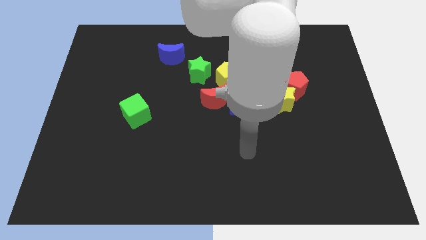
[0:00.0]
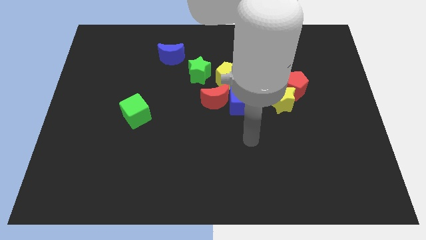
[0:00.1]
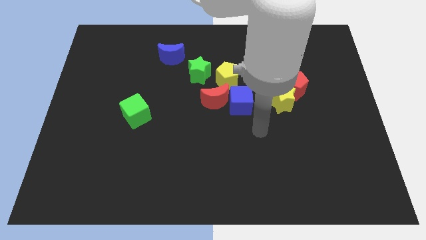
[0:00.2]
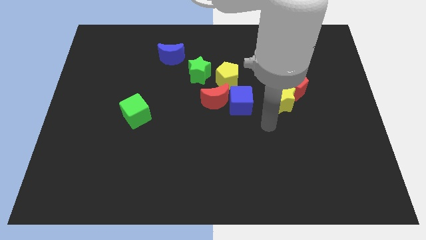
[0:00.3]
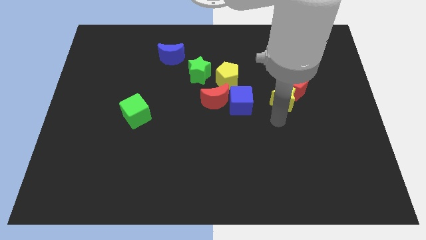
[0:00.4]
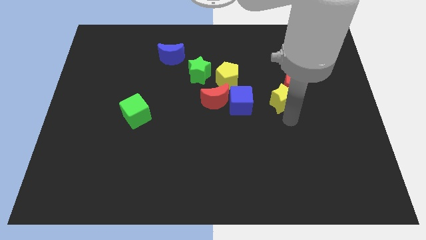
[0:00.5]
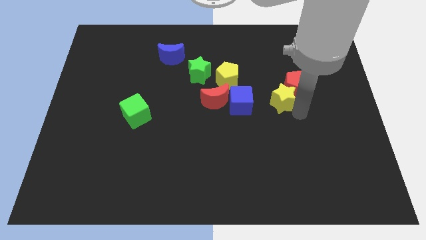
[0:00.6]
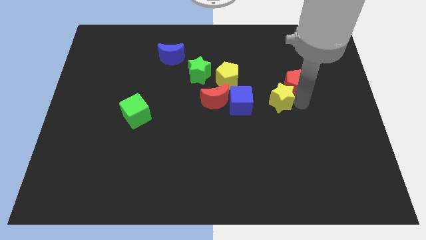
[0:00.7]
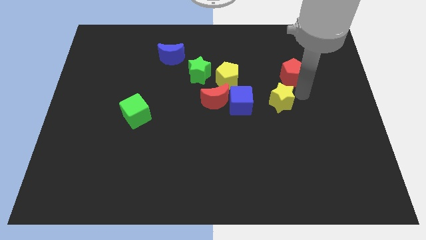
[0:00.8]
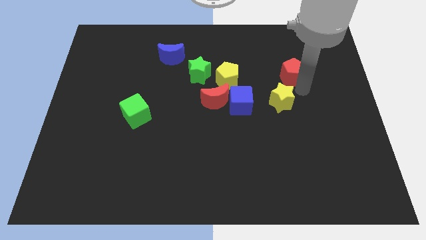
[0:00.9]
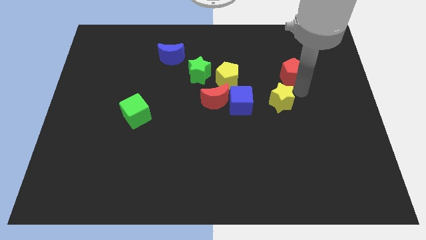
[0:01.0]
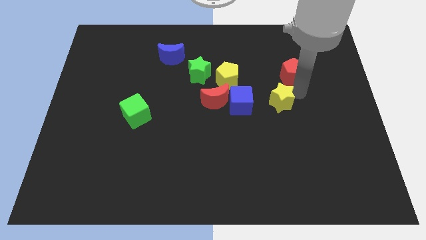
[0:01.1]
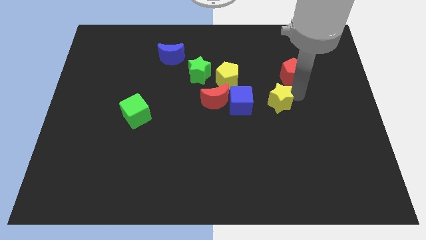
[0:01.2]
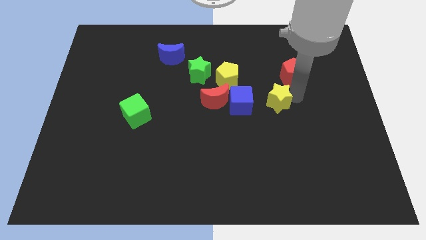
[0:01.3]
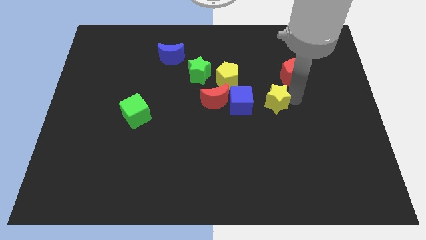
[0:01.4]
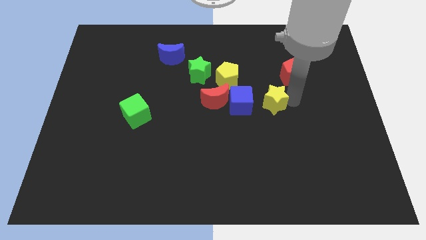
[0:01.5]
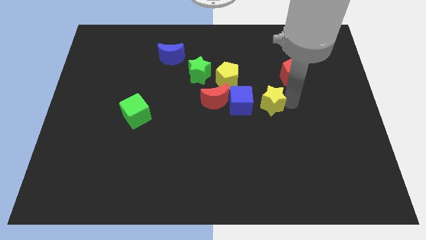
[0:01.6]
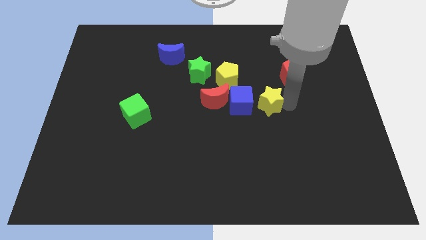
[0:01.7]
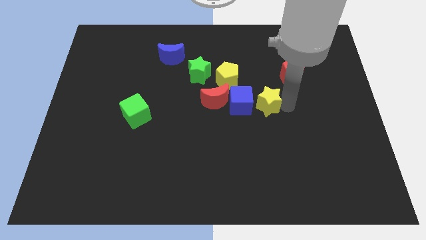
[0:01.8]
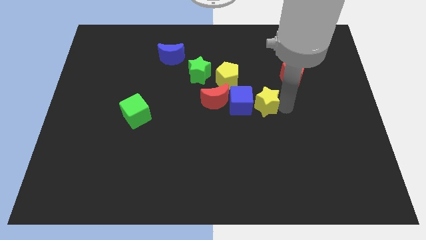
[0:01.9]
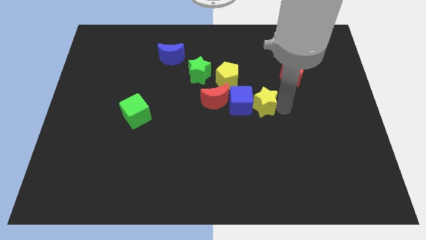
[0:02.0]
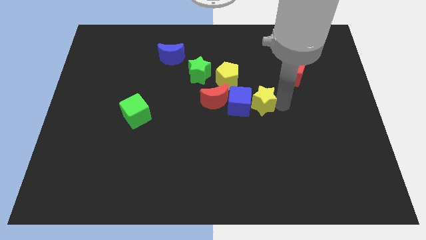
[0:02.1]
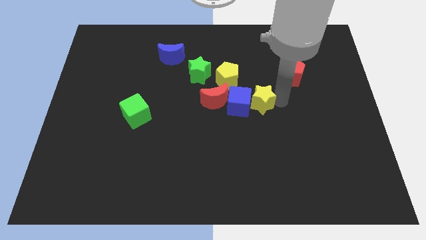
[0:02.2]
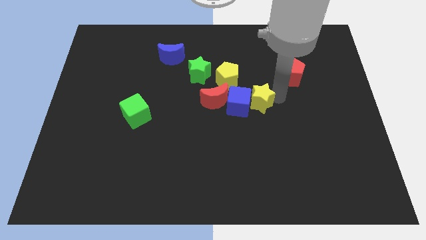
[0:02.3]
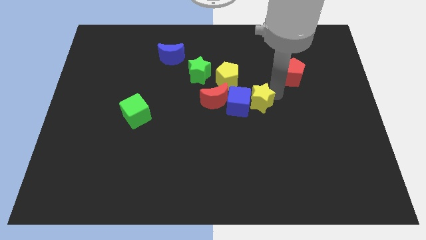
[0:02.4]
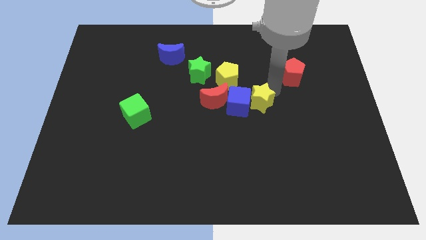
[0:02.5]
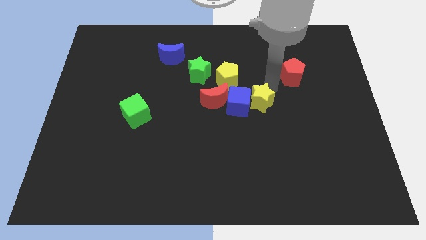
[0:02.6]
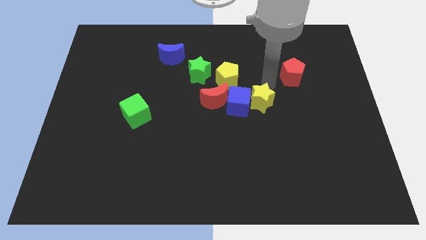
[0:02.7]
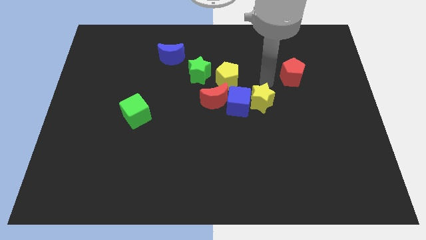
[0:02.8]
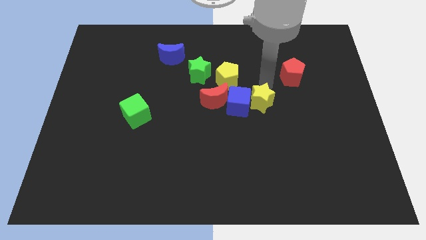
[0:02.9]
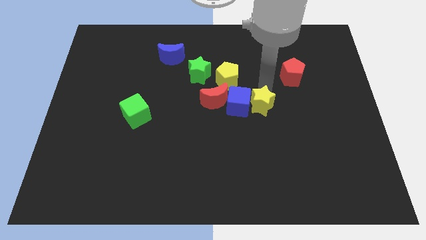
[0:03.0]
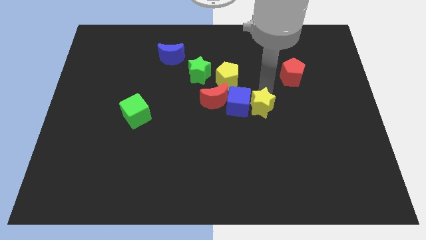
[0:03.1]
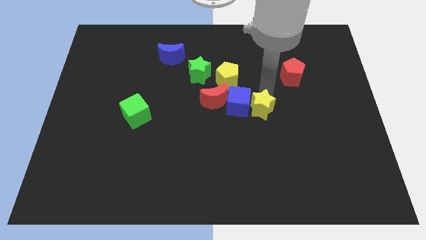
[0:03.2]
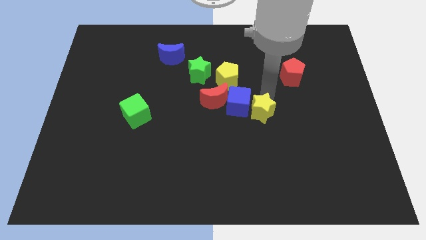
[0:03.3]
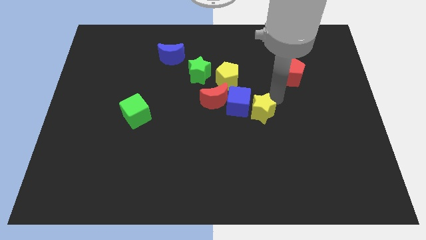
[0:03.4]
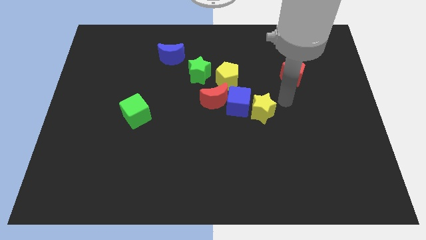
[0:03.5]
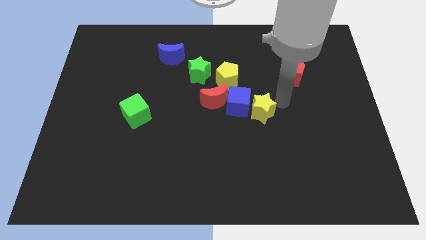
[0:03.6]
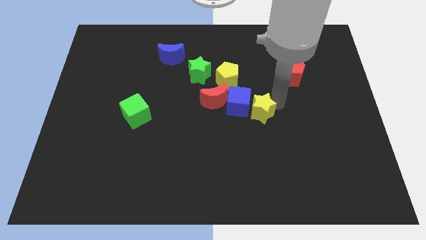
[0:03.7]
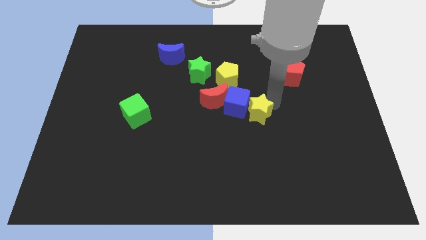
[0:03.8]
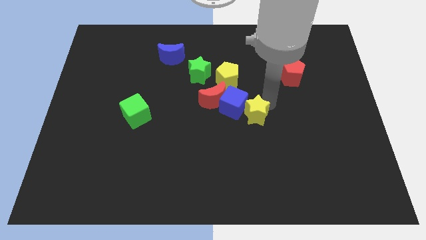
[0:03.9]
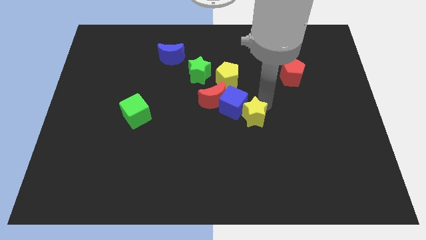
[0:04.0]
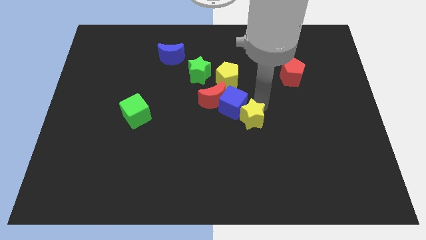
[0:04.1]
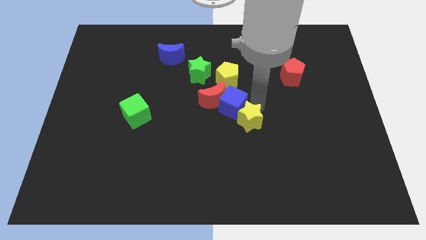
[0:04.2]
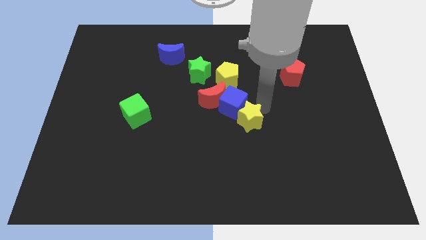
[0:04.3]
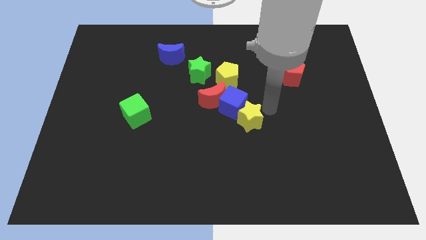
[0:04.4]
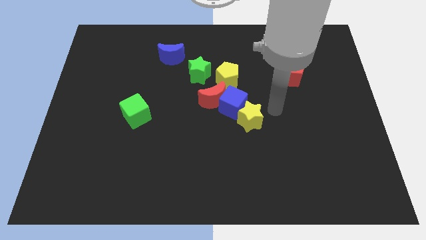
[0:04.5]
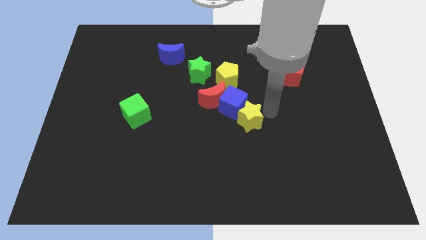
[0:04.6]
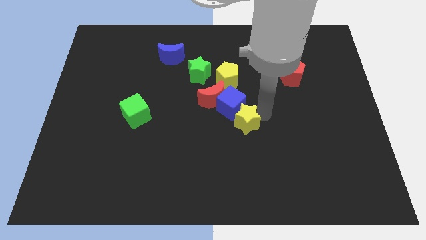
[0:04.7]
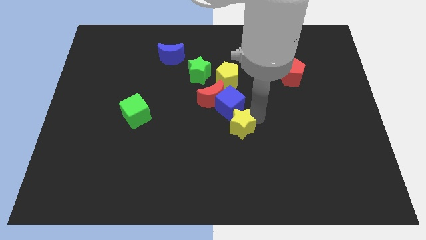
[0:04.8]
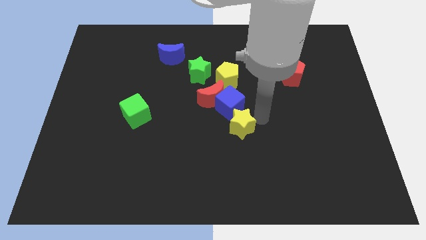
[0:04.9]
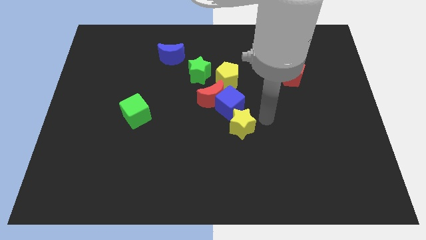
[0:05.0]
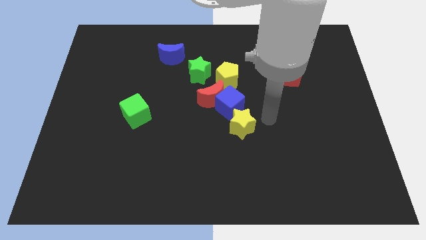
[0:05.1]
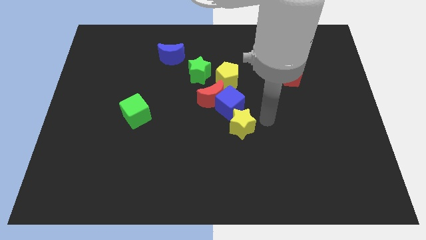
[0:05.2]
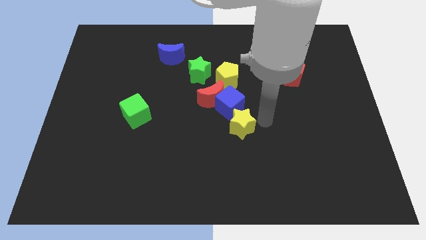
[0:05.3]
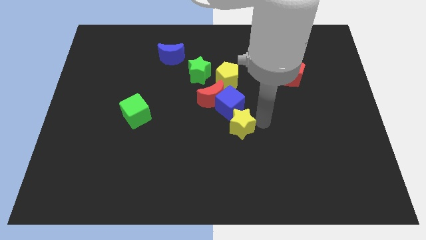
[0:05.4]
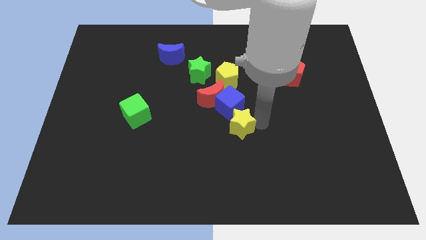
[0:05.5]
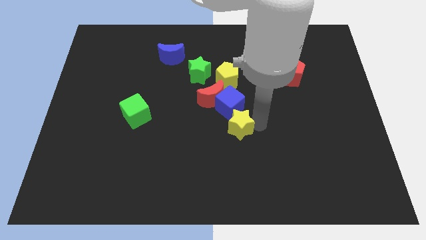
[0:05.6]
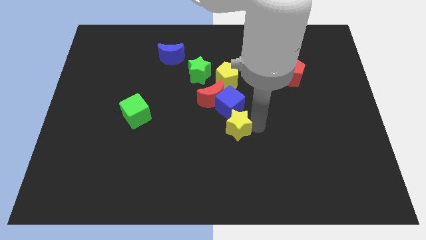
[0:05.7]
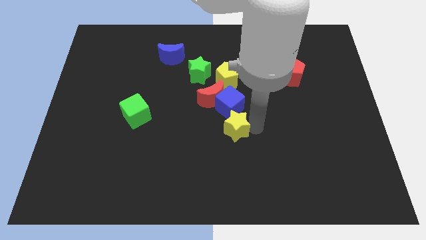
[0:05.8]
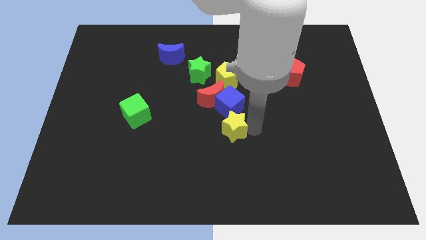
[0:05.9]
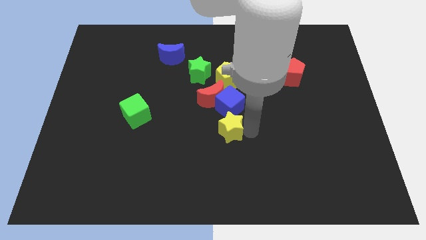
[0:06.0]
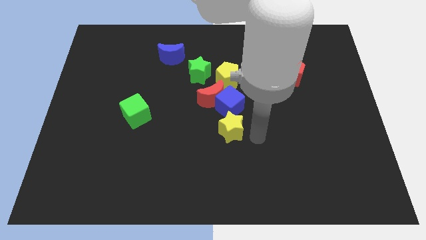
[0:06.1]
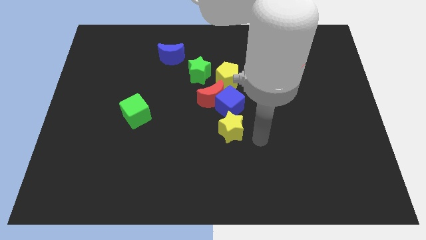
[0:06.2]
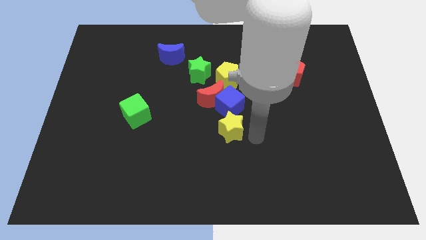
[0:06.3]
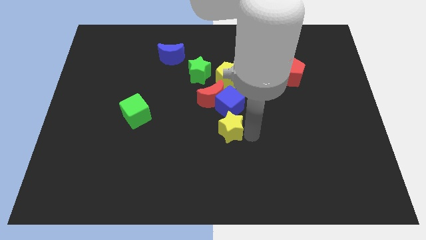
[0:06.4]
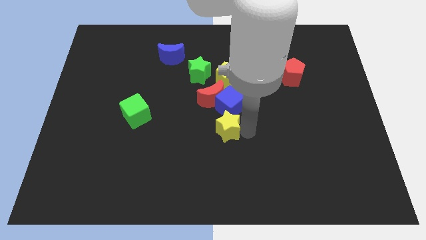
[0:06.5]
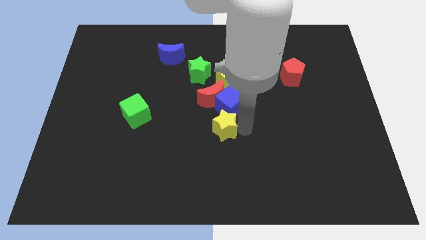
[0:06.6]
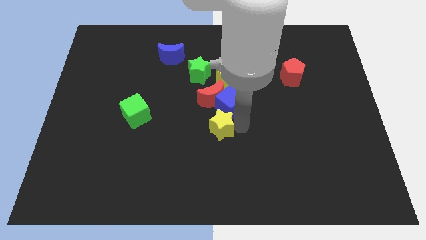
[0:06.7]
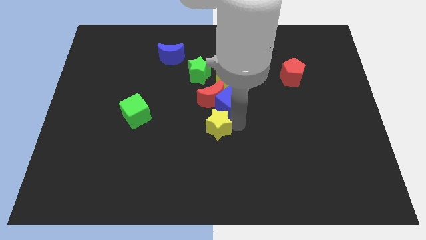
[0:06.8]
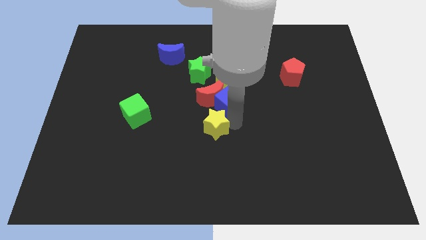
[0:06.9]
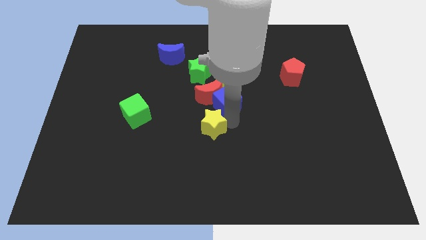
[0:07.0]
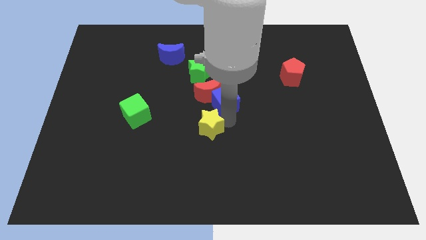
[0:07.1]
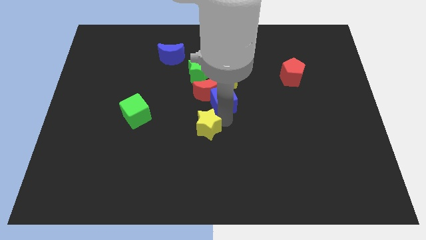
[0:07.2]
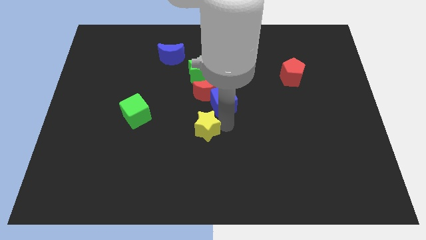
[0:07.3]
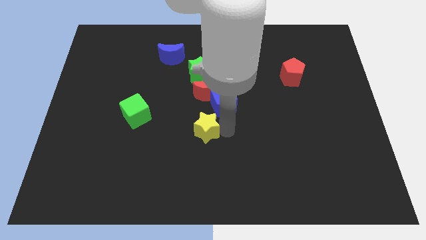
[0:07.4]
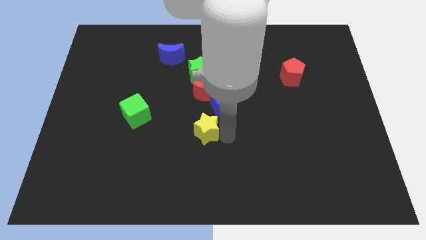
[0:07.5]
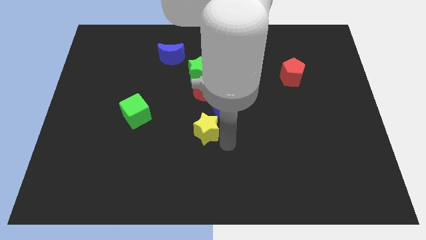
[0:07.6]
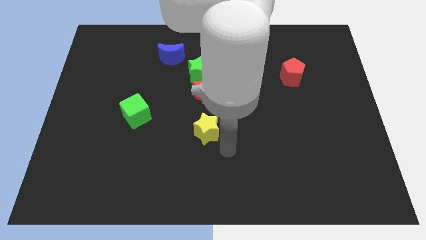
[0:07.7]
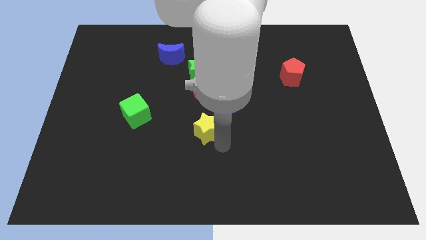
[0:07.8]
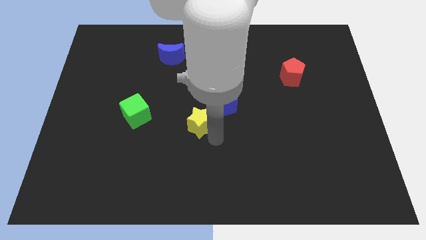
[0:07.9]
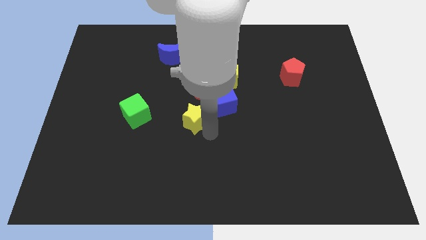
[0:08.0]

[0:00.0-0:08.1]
slide the yellow star to the bottom left side of the red moon
